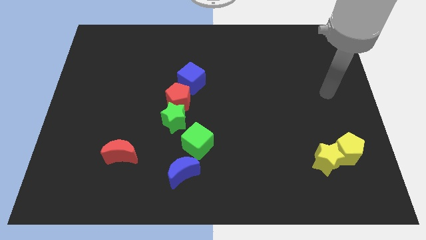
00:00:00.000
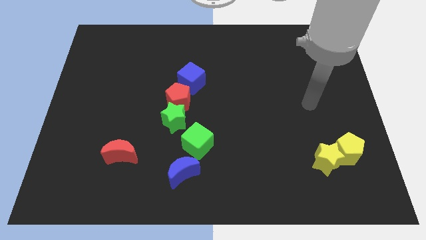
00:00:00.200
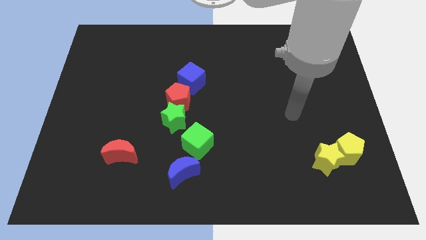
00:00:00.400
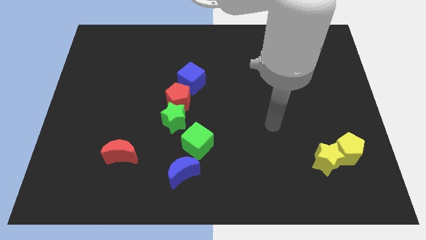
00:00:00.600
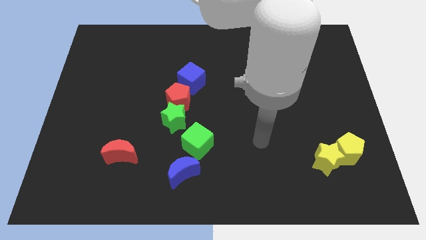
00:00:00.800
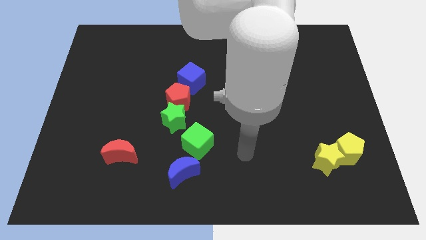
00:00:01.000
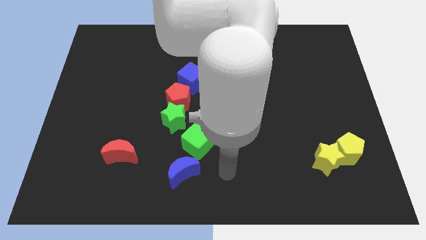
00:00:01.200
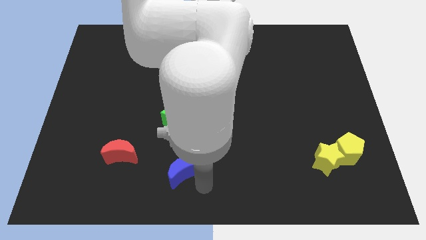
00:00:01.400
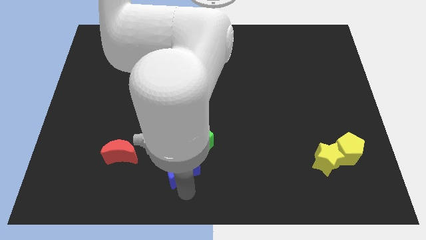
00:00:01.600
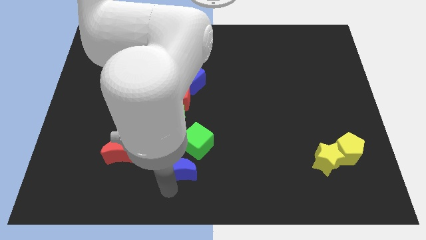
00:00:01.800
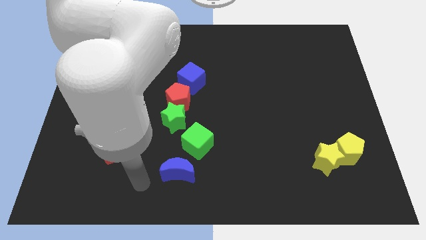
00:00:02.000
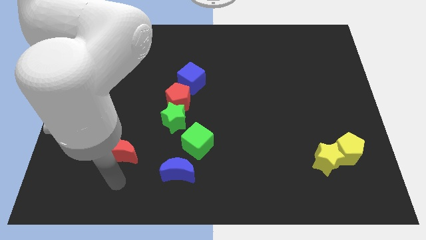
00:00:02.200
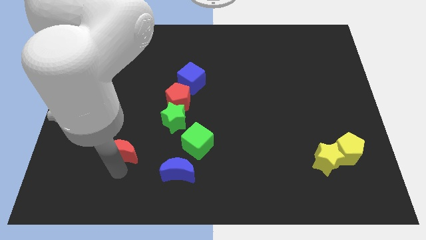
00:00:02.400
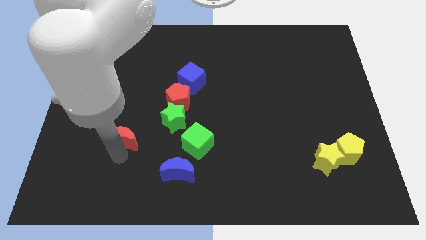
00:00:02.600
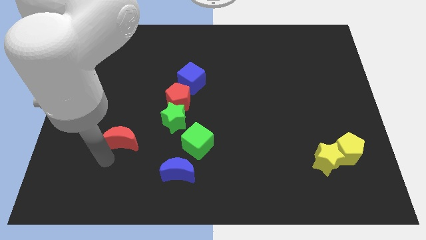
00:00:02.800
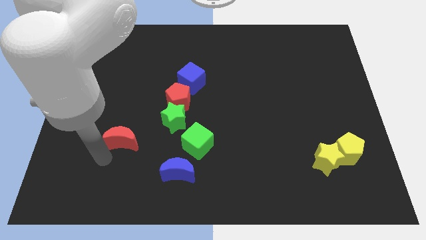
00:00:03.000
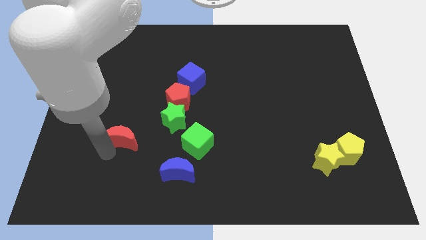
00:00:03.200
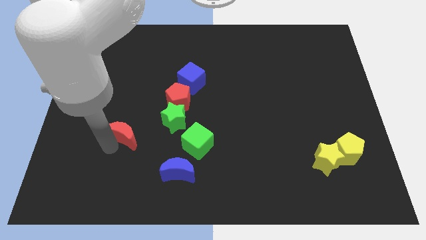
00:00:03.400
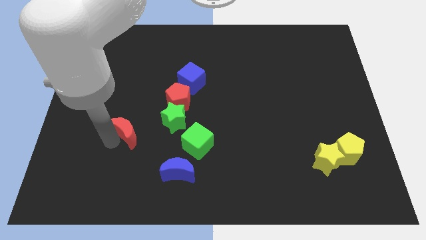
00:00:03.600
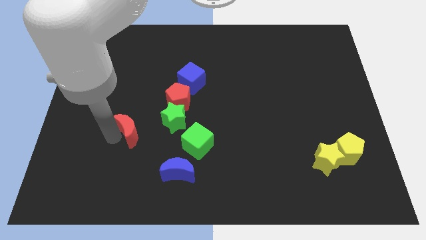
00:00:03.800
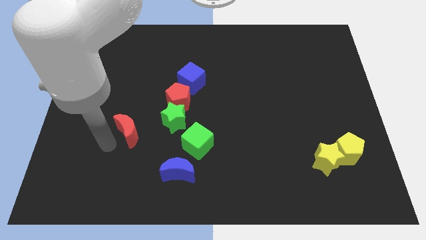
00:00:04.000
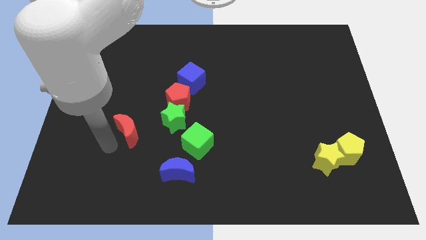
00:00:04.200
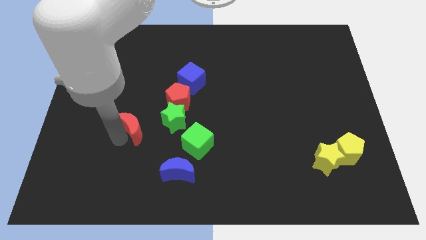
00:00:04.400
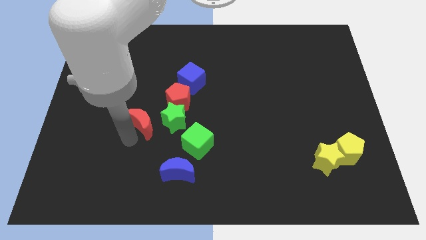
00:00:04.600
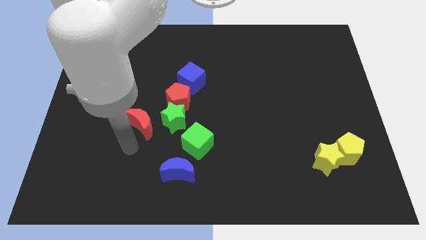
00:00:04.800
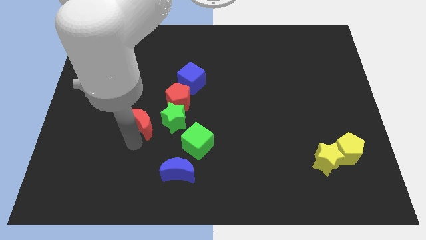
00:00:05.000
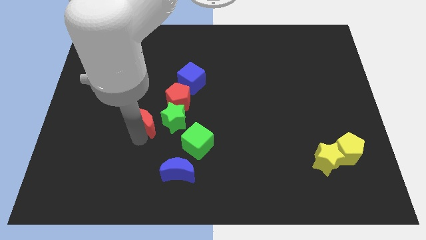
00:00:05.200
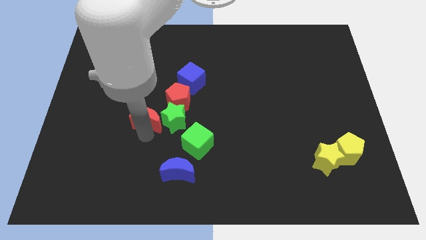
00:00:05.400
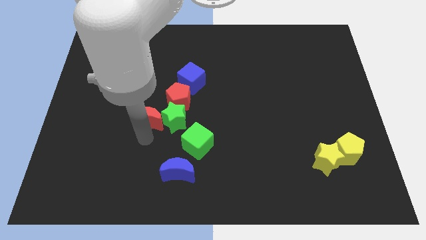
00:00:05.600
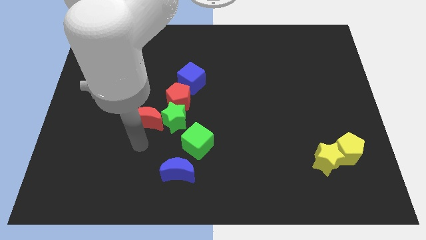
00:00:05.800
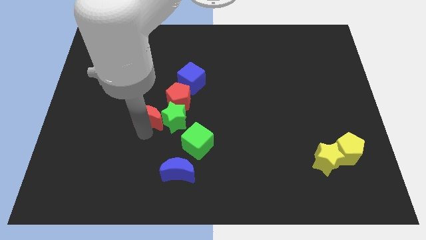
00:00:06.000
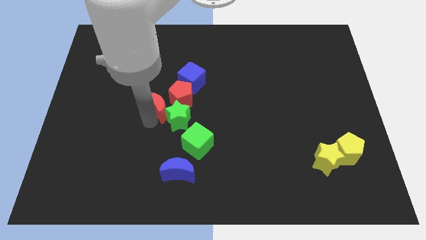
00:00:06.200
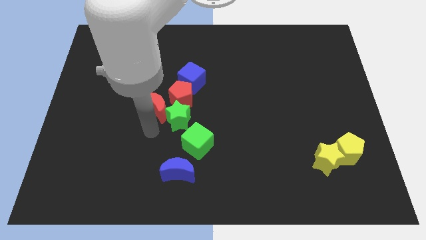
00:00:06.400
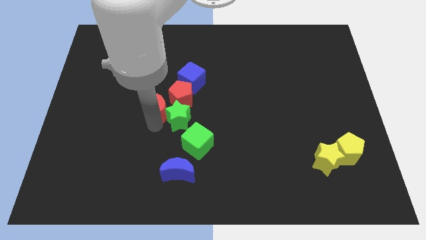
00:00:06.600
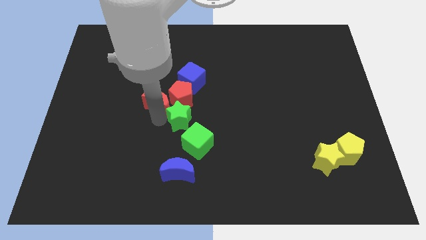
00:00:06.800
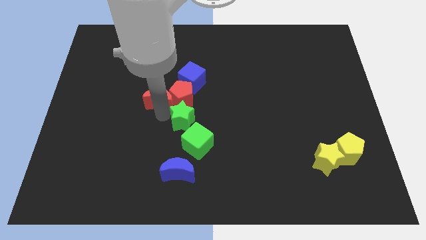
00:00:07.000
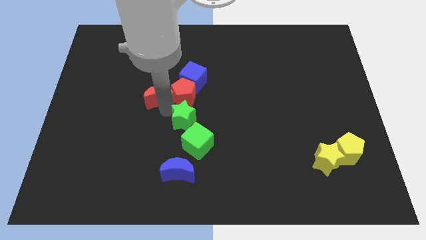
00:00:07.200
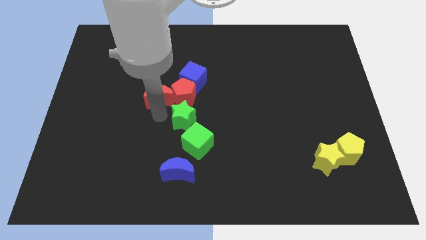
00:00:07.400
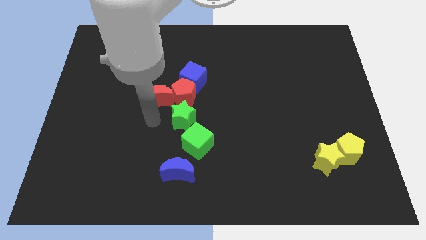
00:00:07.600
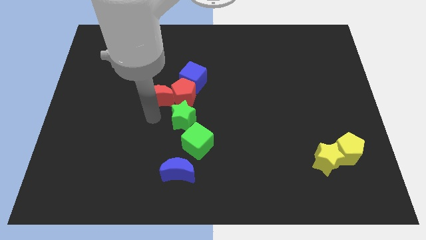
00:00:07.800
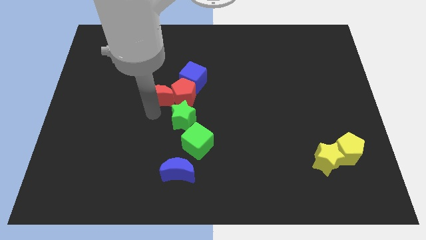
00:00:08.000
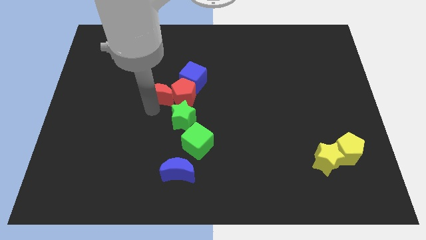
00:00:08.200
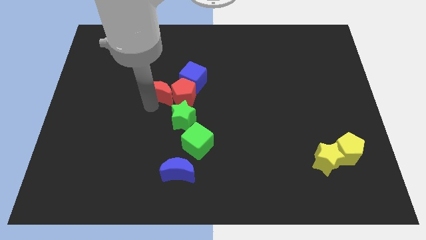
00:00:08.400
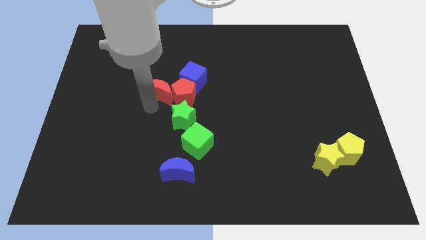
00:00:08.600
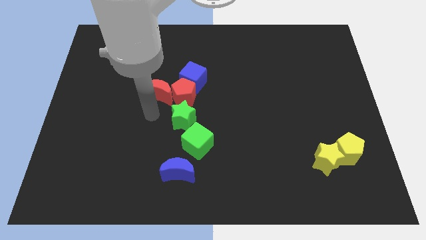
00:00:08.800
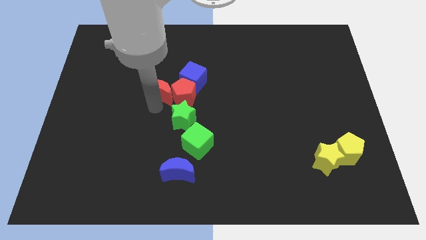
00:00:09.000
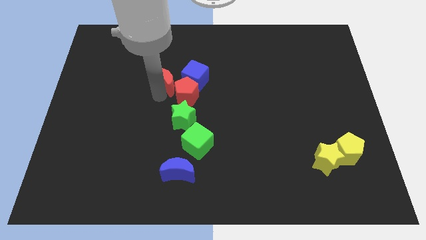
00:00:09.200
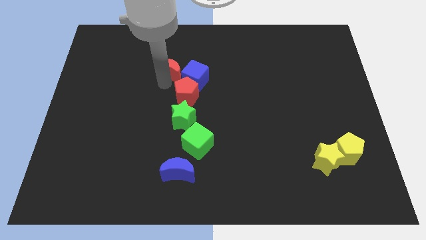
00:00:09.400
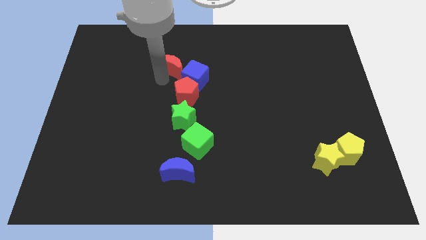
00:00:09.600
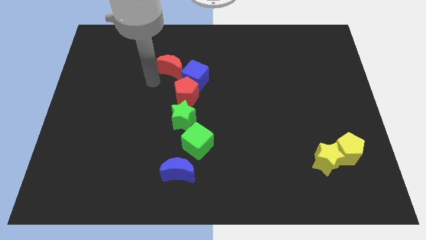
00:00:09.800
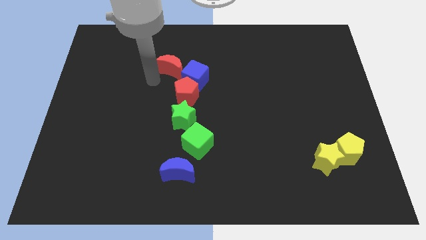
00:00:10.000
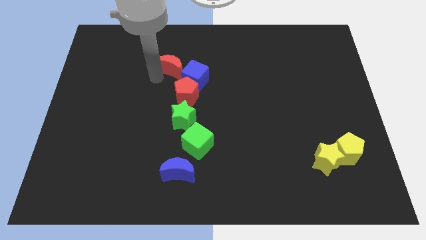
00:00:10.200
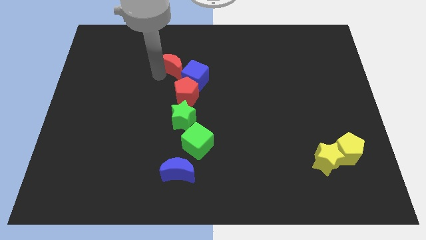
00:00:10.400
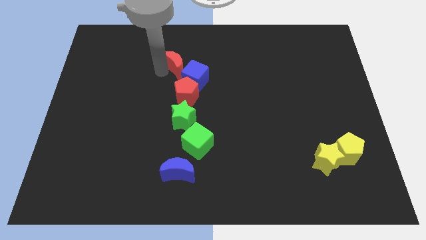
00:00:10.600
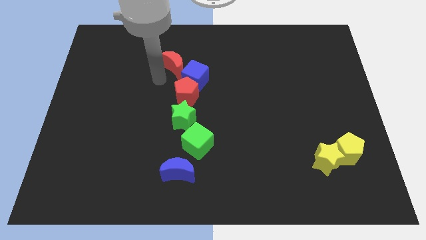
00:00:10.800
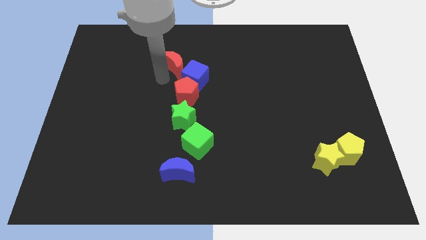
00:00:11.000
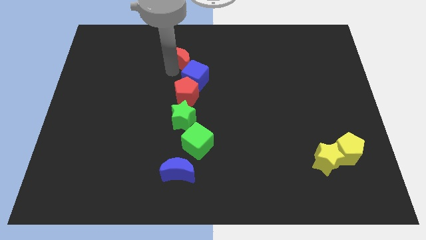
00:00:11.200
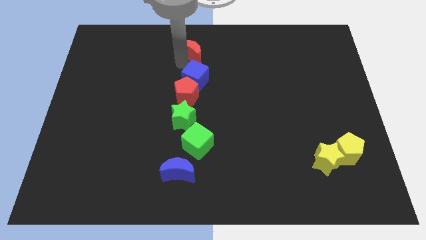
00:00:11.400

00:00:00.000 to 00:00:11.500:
slide the red moon to the towards your base
